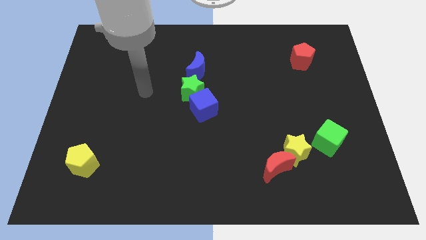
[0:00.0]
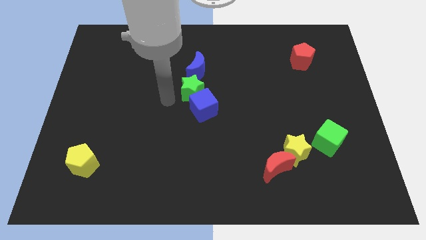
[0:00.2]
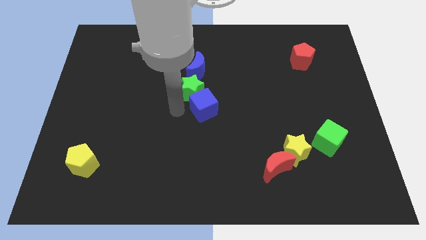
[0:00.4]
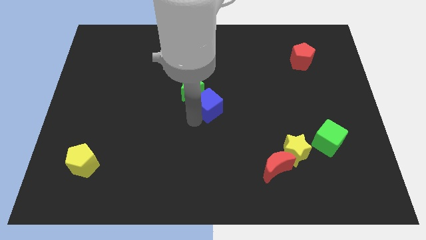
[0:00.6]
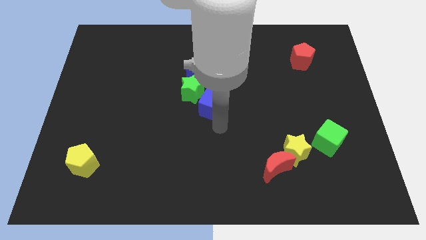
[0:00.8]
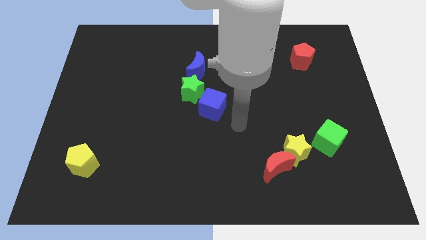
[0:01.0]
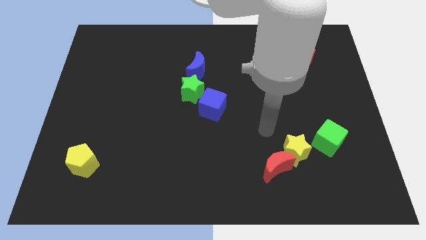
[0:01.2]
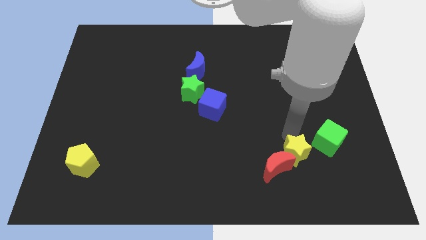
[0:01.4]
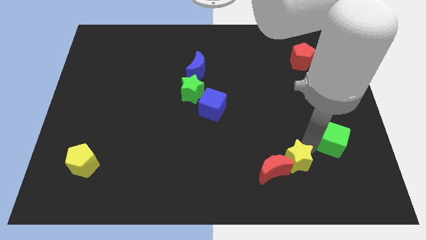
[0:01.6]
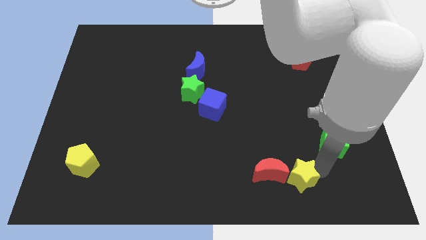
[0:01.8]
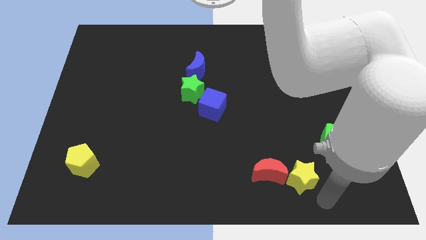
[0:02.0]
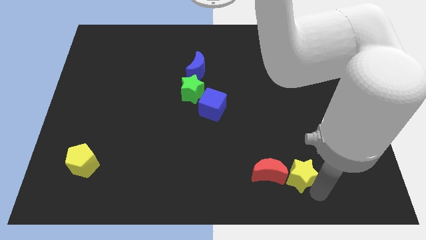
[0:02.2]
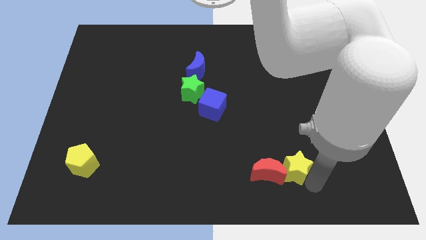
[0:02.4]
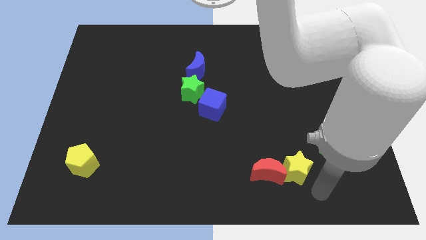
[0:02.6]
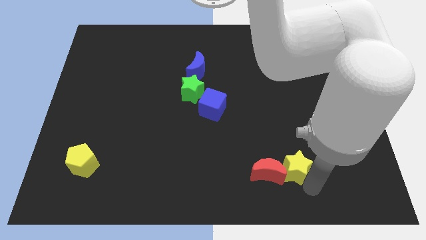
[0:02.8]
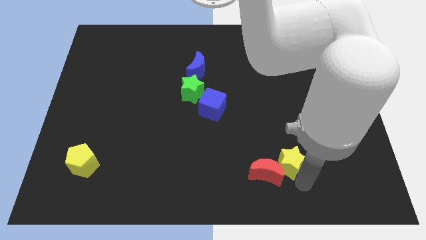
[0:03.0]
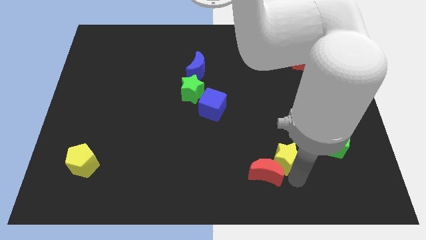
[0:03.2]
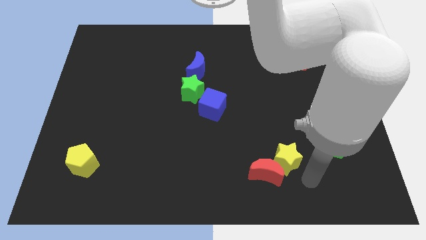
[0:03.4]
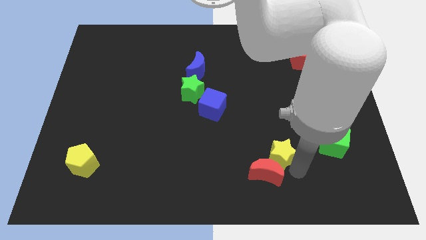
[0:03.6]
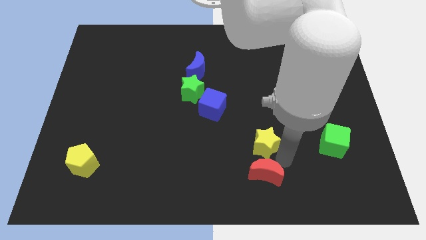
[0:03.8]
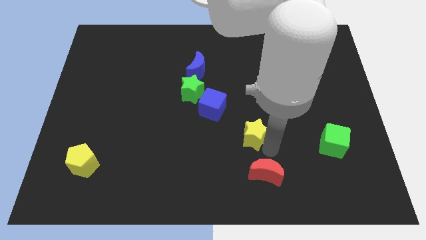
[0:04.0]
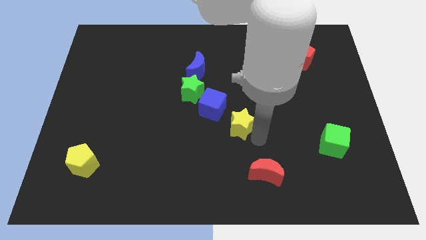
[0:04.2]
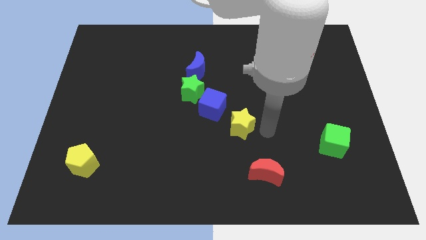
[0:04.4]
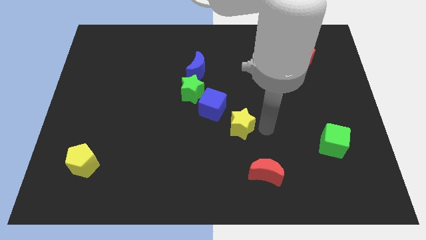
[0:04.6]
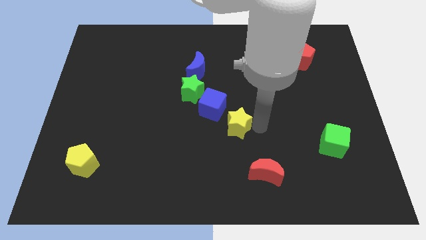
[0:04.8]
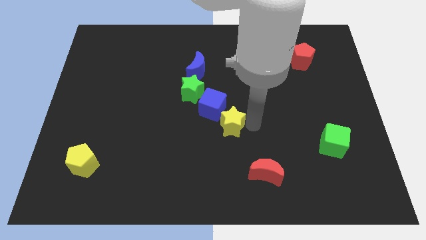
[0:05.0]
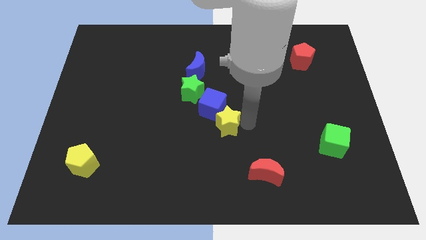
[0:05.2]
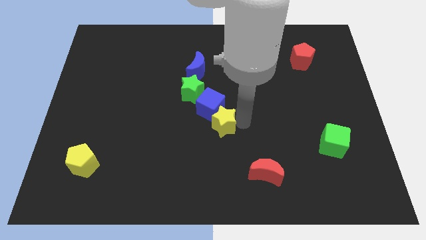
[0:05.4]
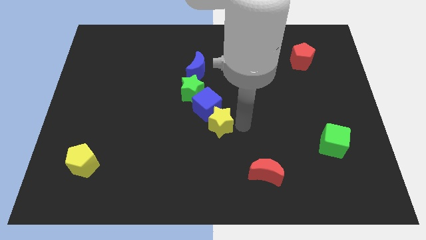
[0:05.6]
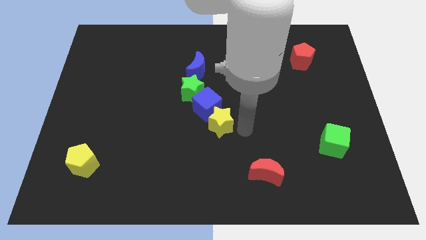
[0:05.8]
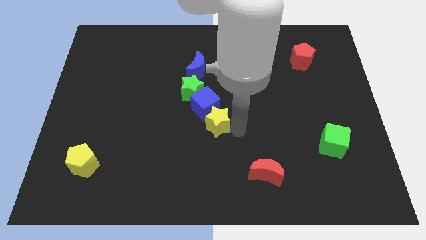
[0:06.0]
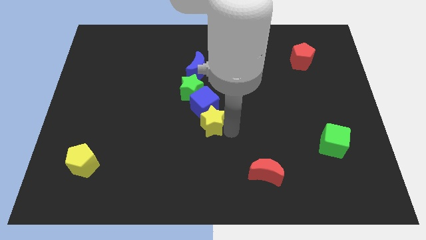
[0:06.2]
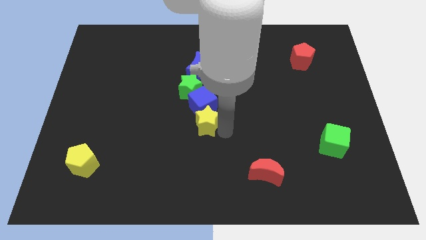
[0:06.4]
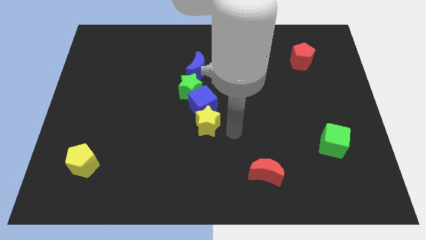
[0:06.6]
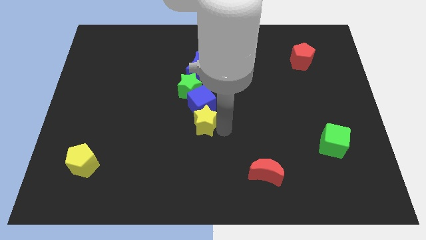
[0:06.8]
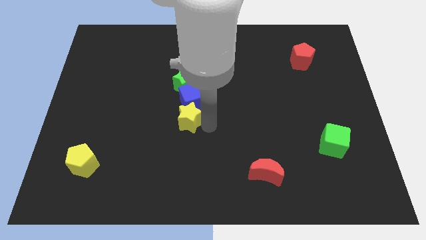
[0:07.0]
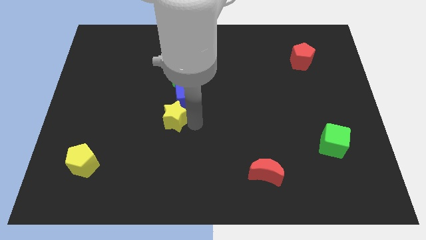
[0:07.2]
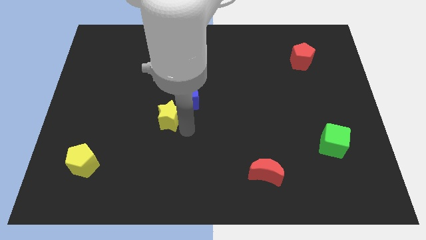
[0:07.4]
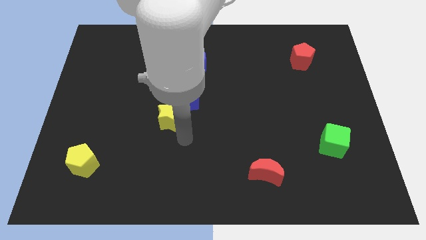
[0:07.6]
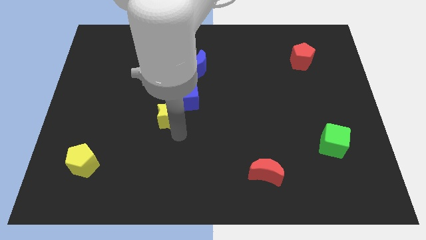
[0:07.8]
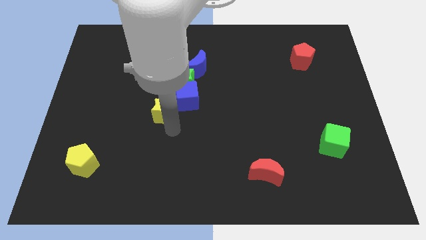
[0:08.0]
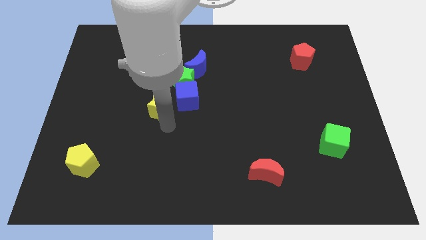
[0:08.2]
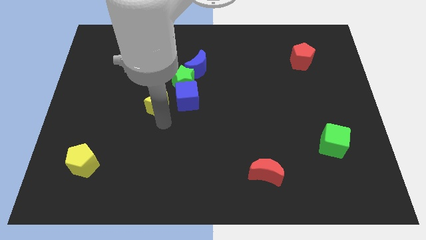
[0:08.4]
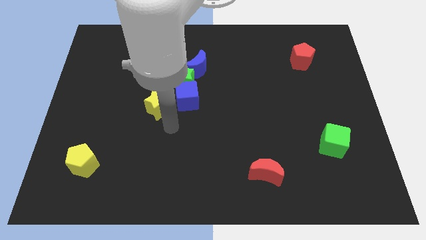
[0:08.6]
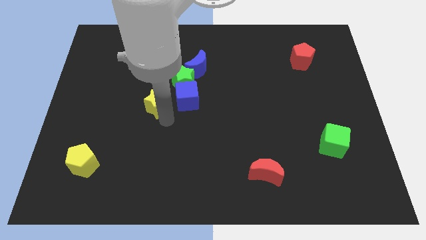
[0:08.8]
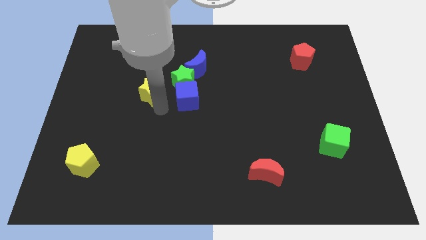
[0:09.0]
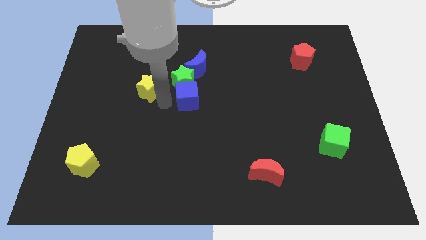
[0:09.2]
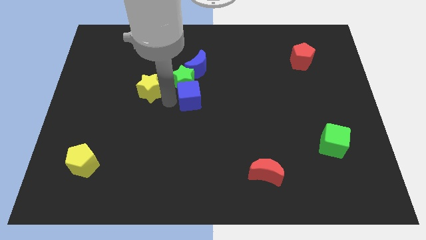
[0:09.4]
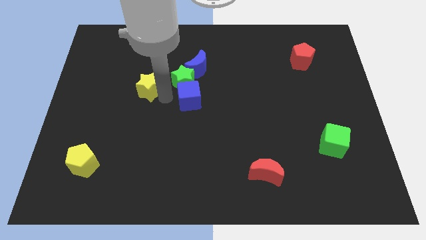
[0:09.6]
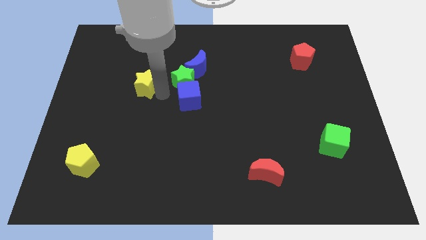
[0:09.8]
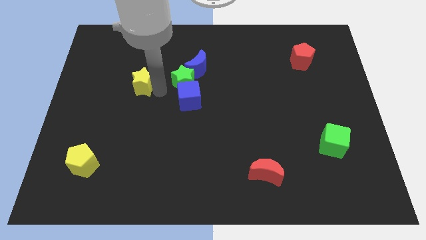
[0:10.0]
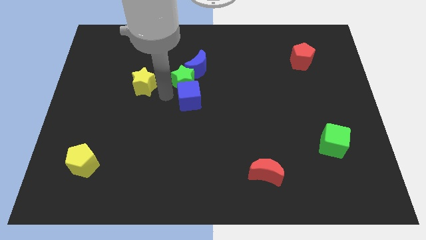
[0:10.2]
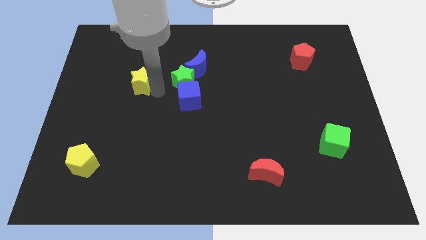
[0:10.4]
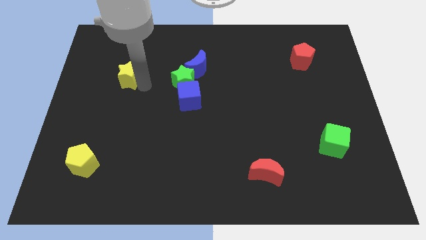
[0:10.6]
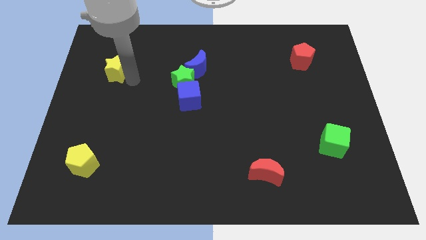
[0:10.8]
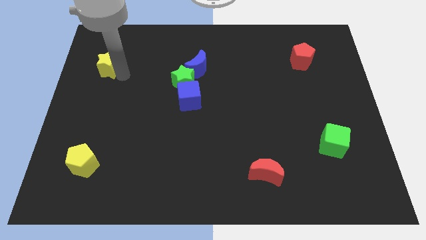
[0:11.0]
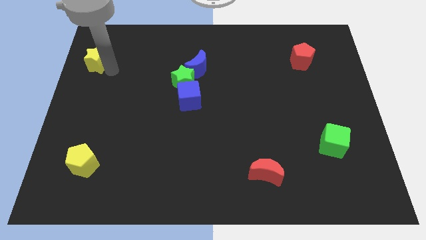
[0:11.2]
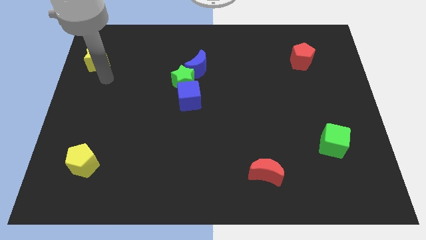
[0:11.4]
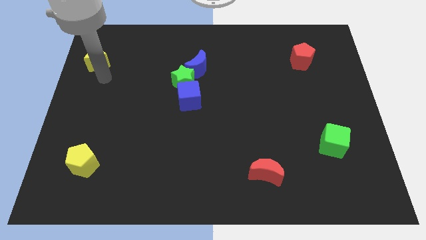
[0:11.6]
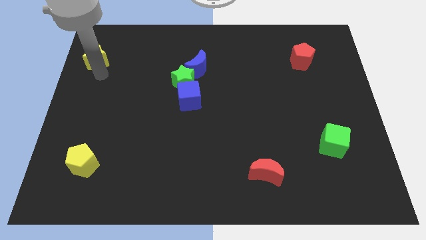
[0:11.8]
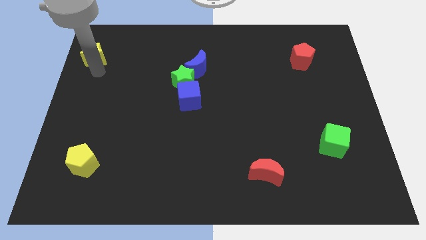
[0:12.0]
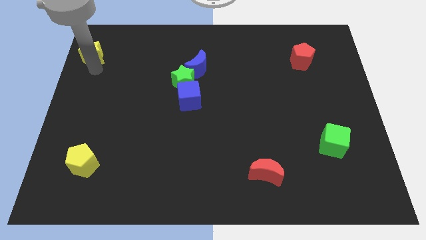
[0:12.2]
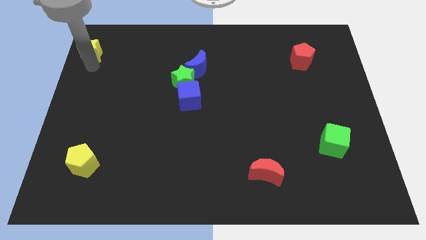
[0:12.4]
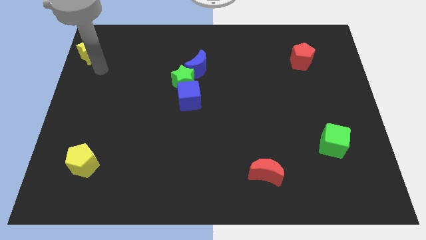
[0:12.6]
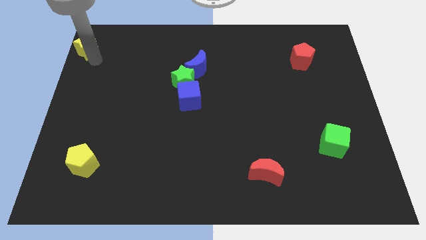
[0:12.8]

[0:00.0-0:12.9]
slide the yellow star to the top left of the board

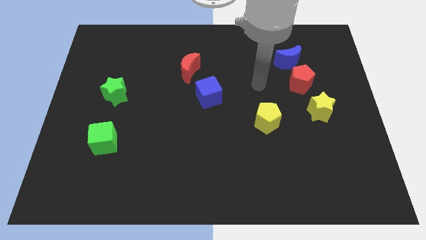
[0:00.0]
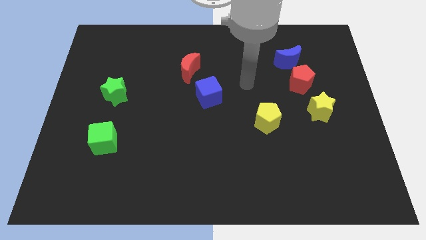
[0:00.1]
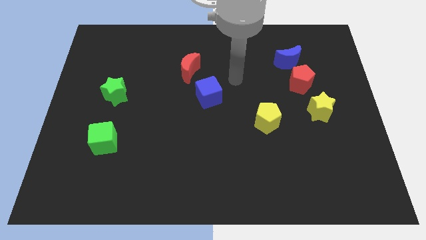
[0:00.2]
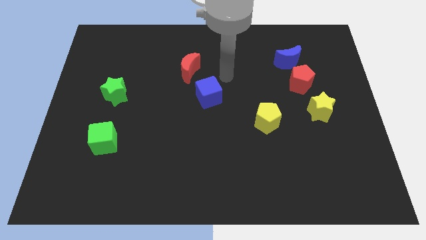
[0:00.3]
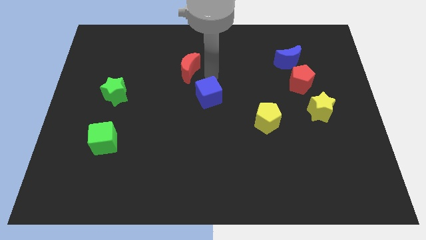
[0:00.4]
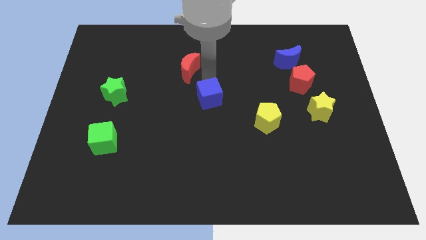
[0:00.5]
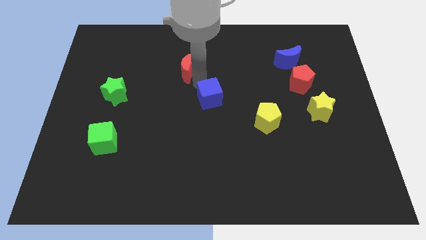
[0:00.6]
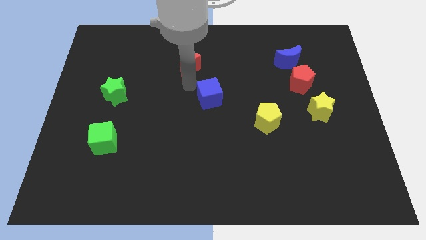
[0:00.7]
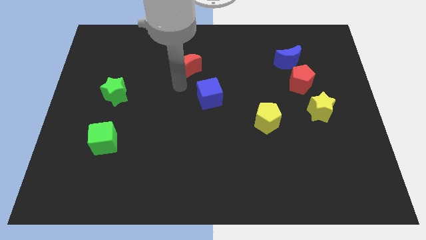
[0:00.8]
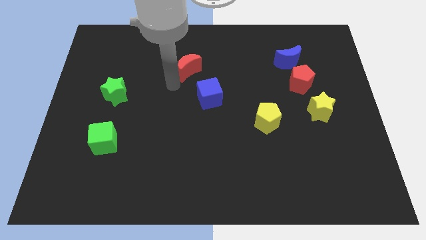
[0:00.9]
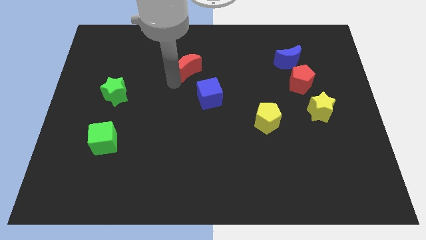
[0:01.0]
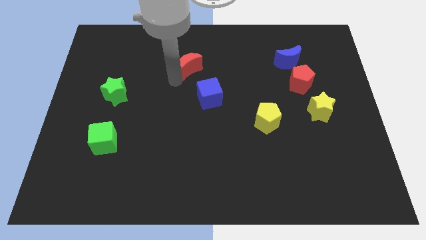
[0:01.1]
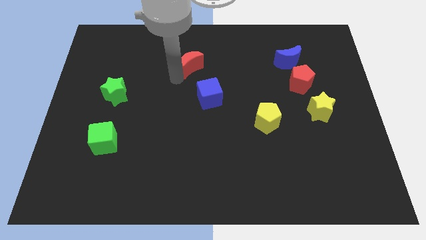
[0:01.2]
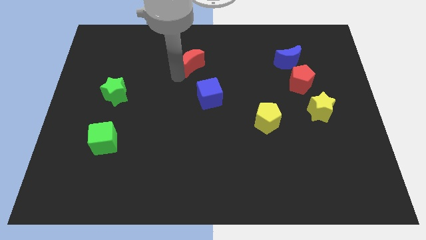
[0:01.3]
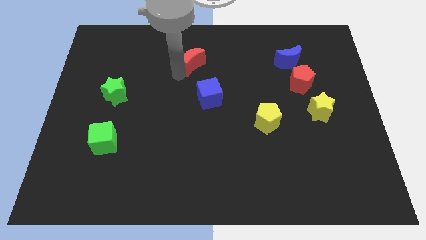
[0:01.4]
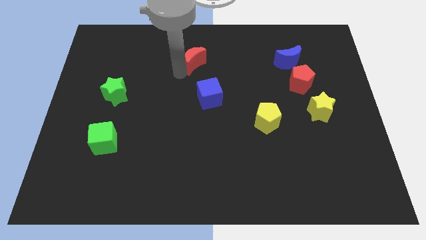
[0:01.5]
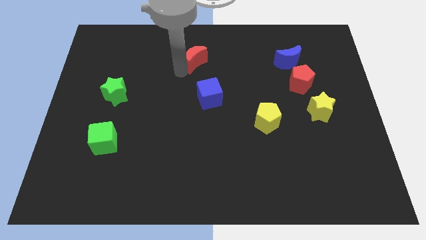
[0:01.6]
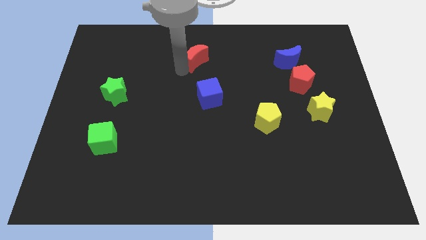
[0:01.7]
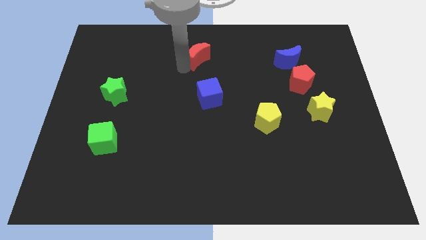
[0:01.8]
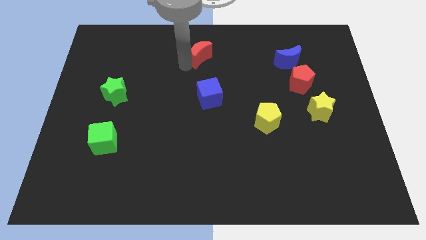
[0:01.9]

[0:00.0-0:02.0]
push the red moon to the top
